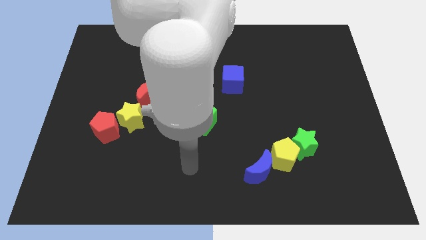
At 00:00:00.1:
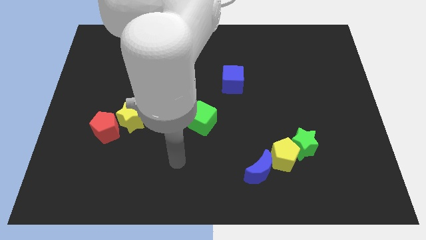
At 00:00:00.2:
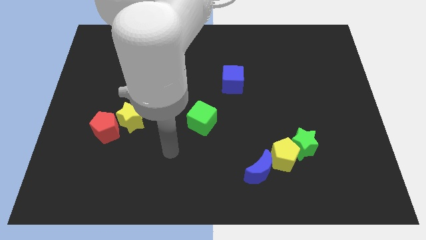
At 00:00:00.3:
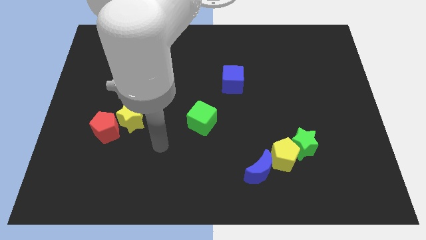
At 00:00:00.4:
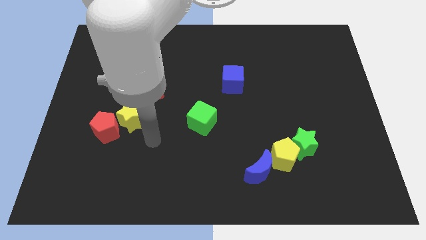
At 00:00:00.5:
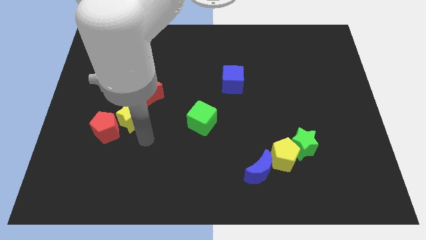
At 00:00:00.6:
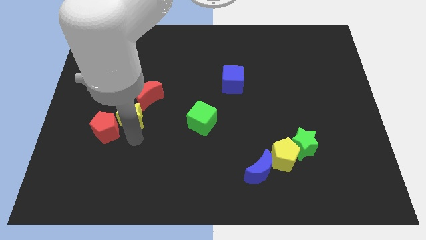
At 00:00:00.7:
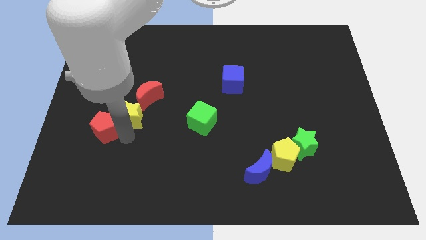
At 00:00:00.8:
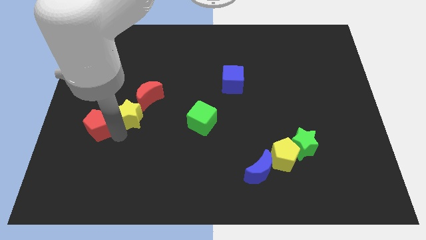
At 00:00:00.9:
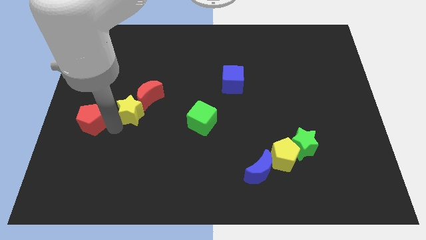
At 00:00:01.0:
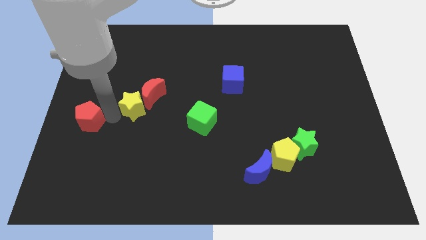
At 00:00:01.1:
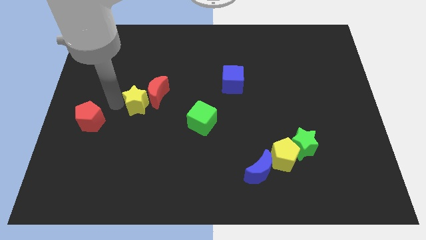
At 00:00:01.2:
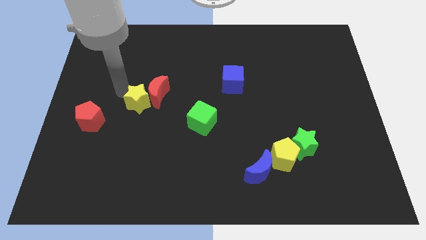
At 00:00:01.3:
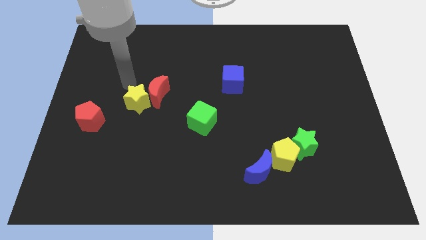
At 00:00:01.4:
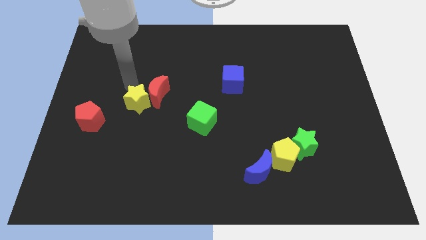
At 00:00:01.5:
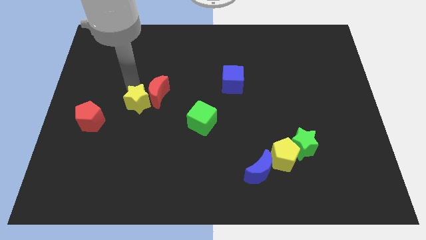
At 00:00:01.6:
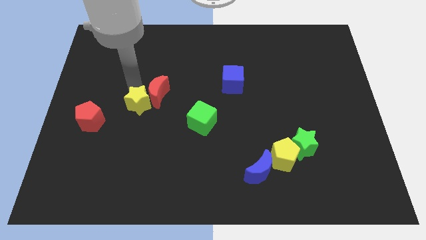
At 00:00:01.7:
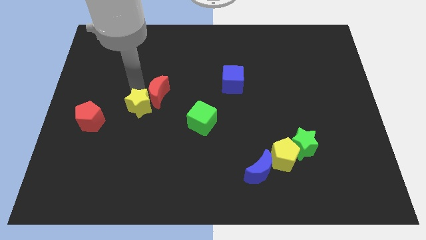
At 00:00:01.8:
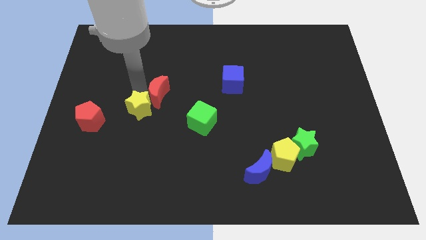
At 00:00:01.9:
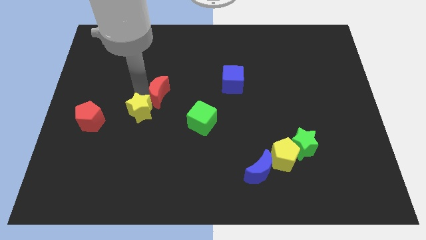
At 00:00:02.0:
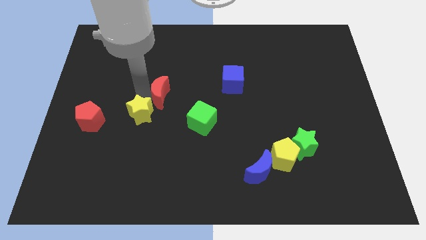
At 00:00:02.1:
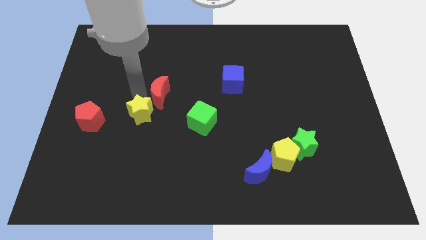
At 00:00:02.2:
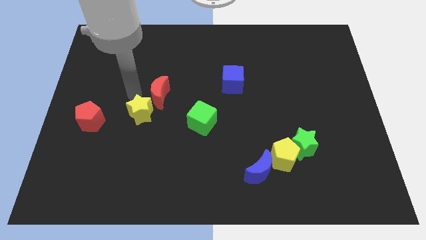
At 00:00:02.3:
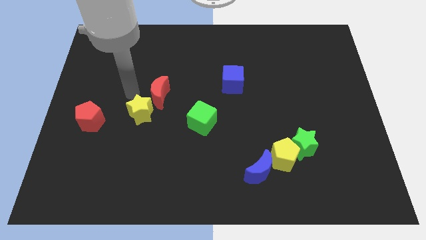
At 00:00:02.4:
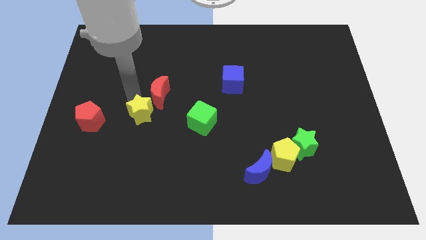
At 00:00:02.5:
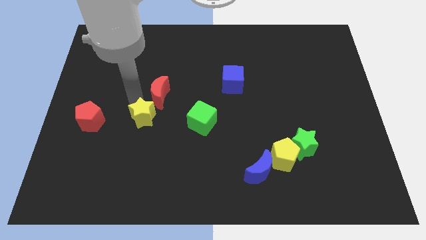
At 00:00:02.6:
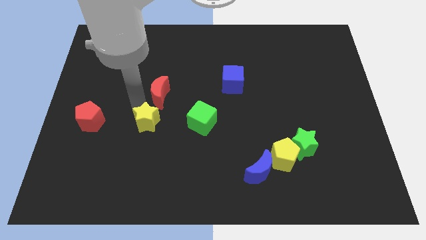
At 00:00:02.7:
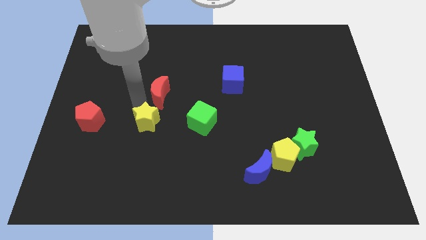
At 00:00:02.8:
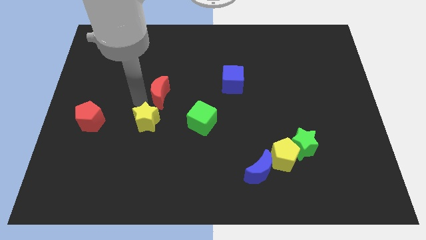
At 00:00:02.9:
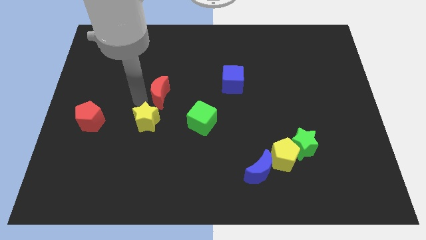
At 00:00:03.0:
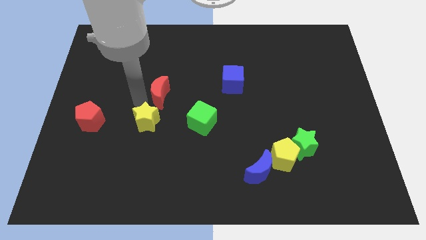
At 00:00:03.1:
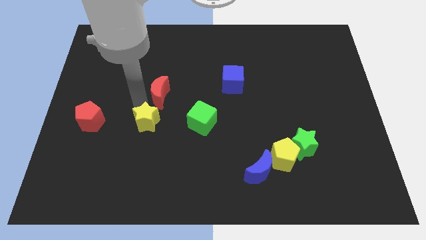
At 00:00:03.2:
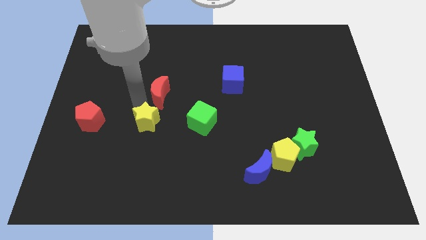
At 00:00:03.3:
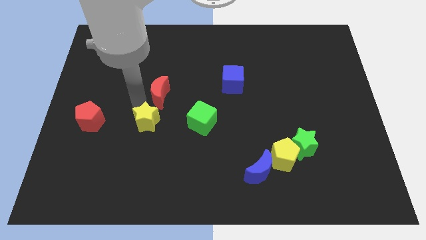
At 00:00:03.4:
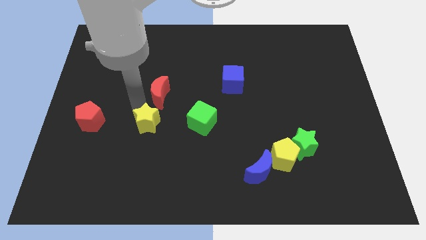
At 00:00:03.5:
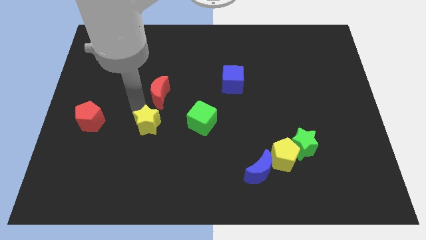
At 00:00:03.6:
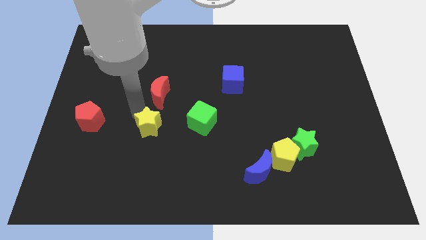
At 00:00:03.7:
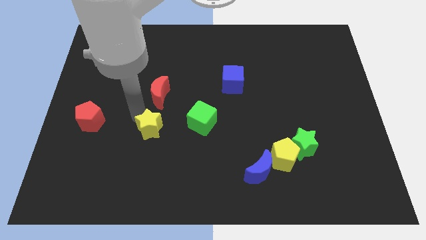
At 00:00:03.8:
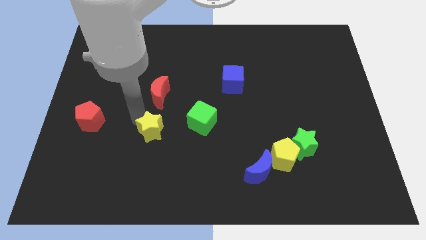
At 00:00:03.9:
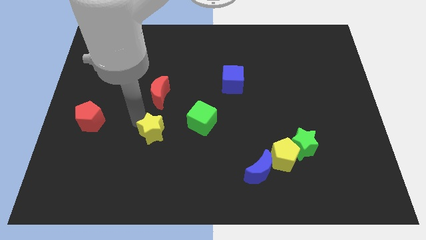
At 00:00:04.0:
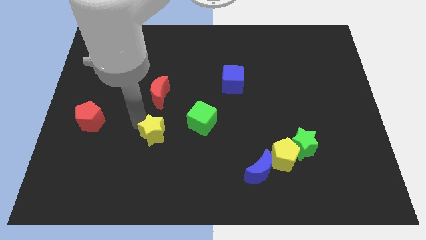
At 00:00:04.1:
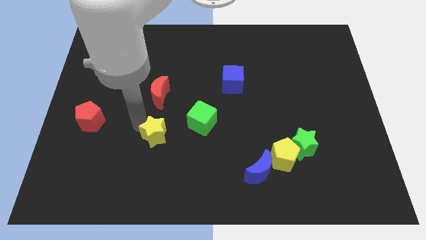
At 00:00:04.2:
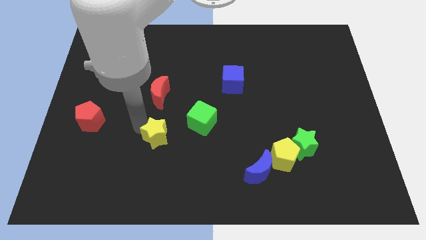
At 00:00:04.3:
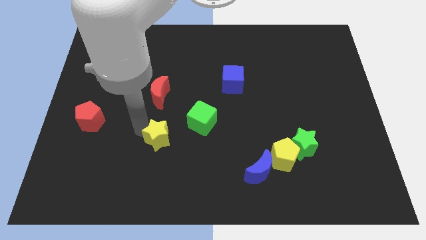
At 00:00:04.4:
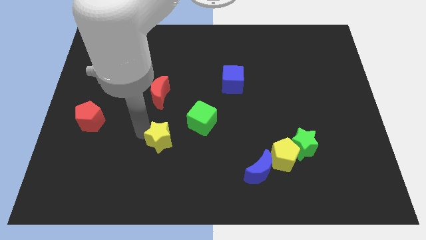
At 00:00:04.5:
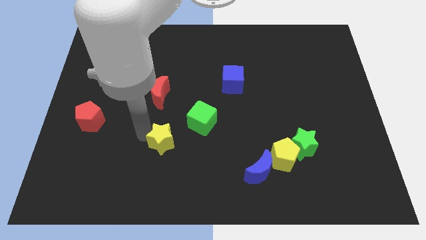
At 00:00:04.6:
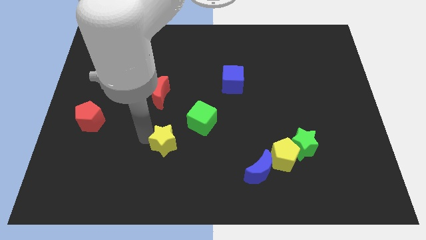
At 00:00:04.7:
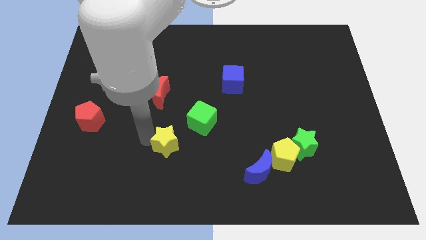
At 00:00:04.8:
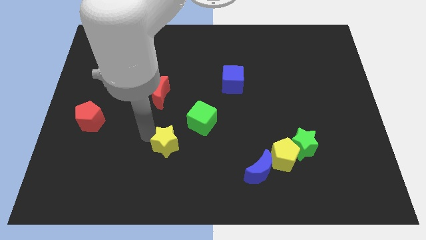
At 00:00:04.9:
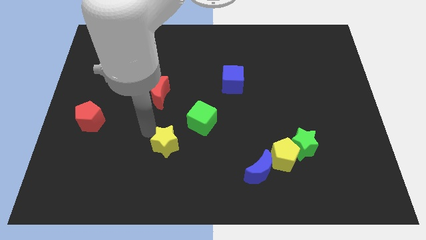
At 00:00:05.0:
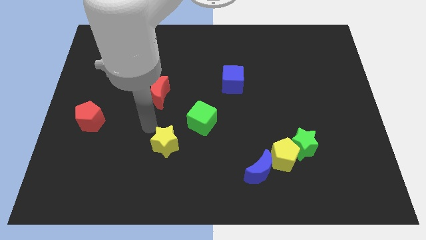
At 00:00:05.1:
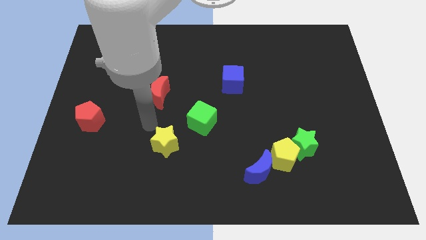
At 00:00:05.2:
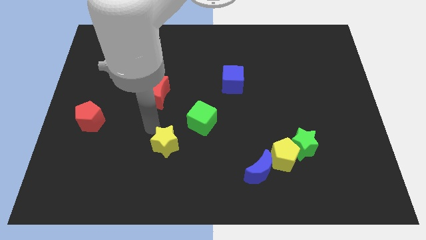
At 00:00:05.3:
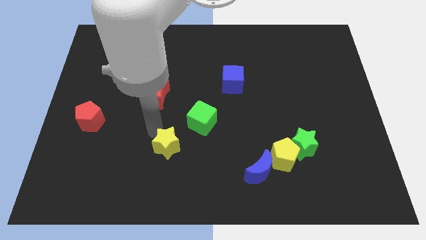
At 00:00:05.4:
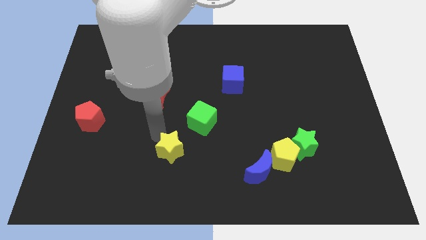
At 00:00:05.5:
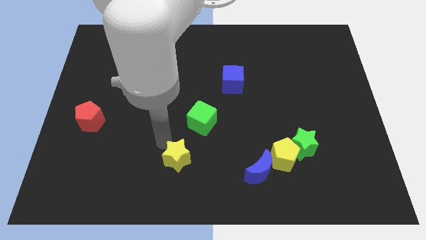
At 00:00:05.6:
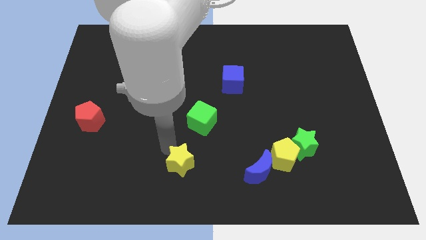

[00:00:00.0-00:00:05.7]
slide the yellow star to the bottom side

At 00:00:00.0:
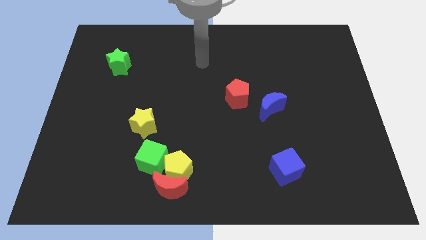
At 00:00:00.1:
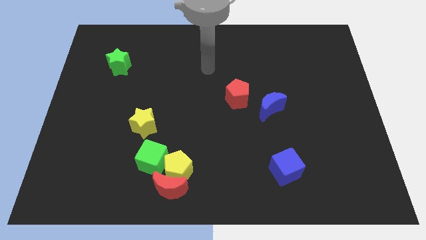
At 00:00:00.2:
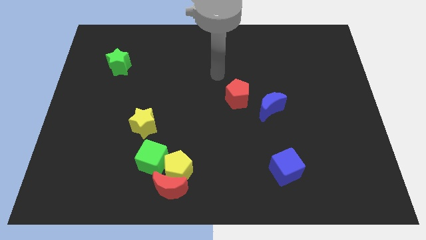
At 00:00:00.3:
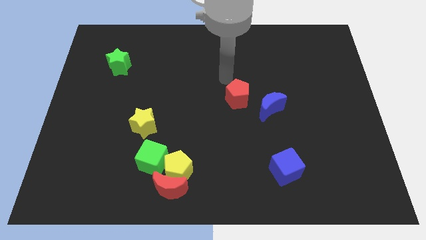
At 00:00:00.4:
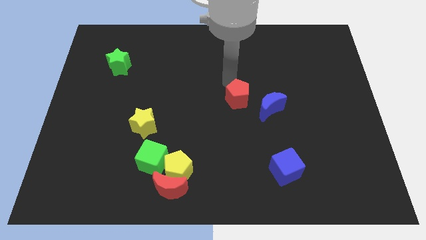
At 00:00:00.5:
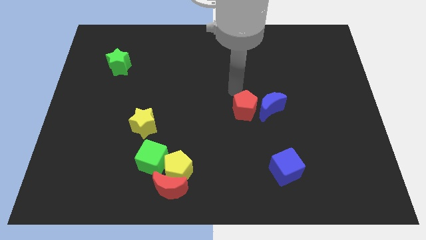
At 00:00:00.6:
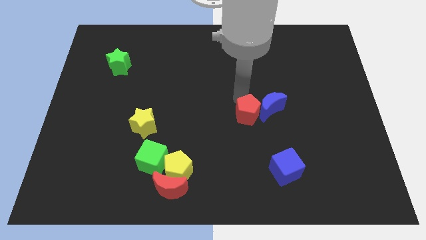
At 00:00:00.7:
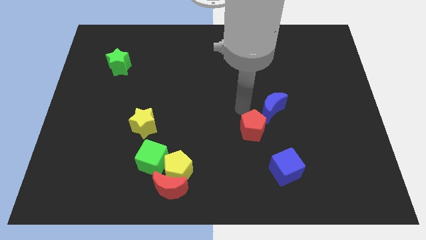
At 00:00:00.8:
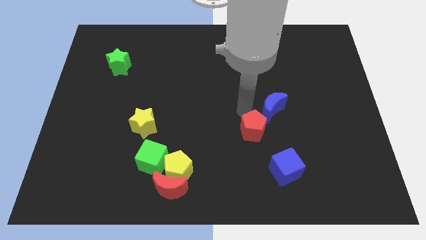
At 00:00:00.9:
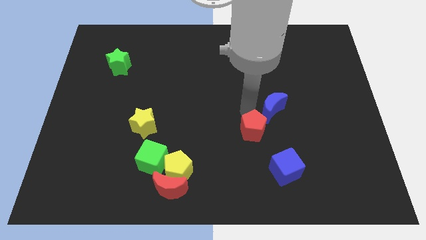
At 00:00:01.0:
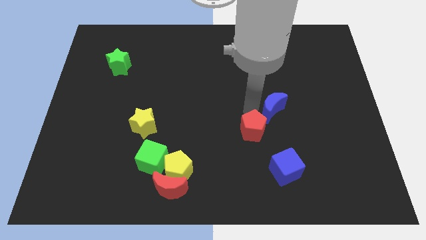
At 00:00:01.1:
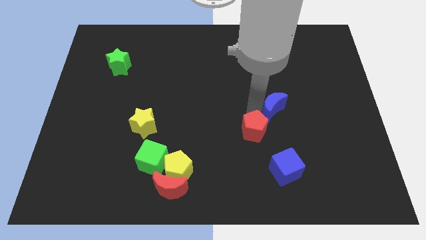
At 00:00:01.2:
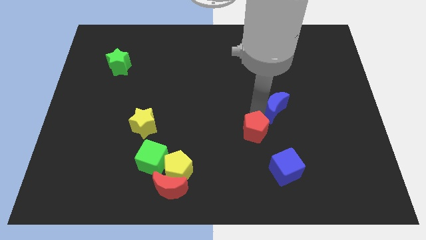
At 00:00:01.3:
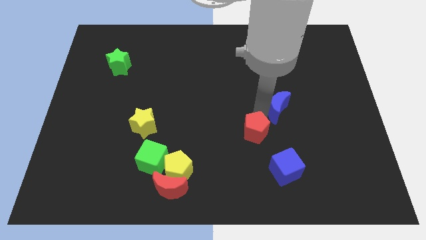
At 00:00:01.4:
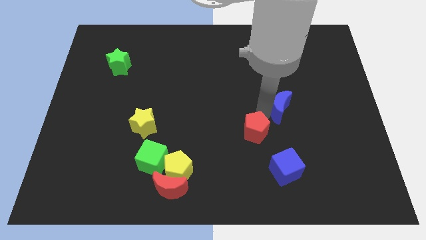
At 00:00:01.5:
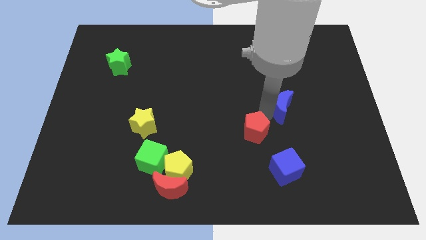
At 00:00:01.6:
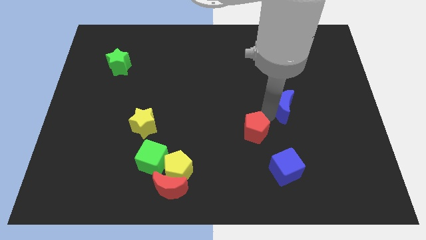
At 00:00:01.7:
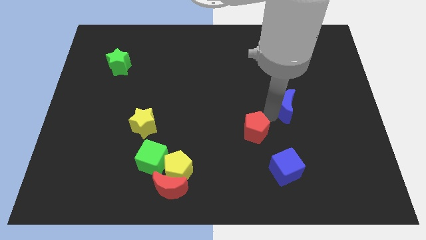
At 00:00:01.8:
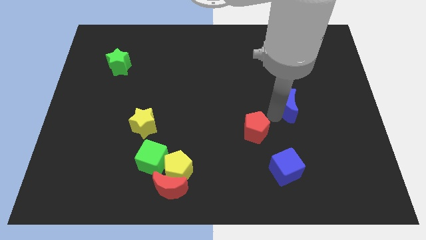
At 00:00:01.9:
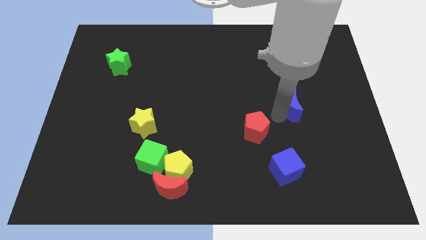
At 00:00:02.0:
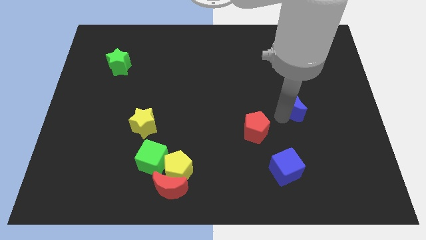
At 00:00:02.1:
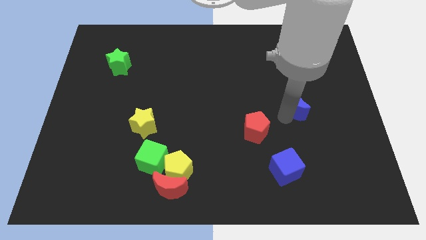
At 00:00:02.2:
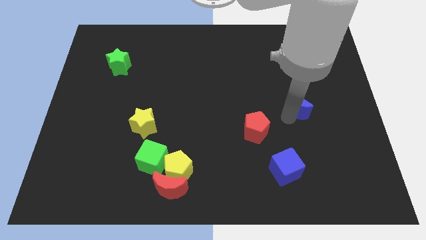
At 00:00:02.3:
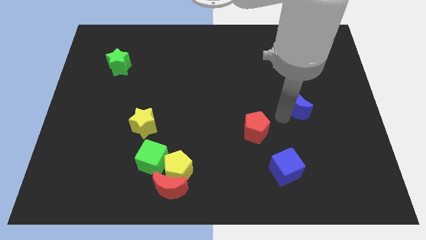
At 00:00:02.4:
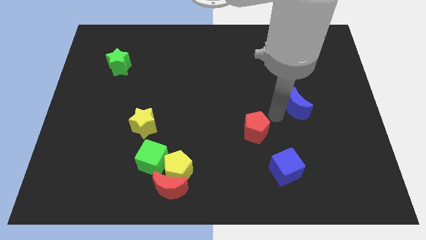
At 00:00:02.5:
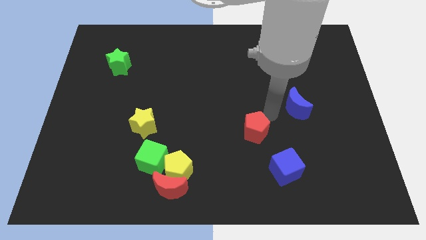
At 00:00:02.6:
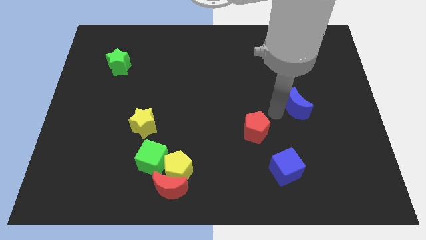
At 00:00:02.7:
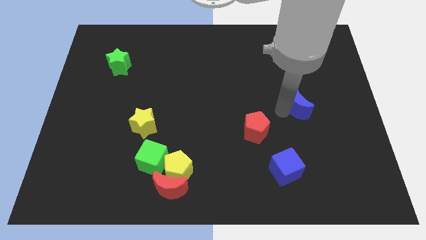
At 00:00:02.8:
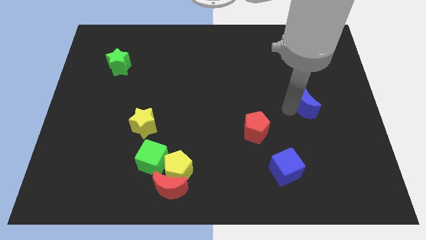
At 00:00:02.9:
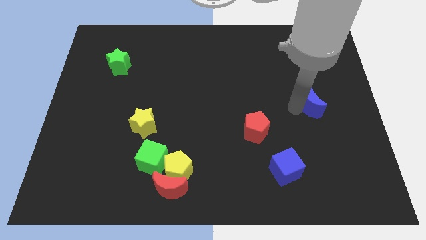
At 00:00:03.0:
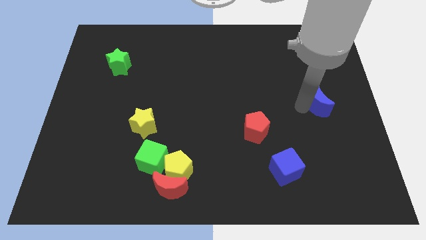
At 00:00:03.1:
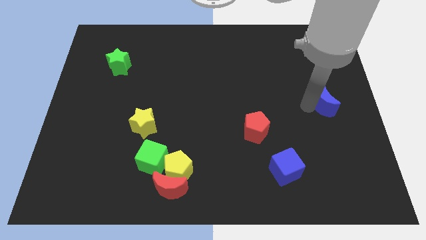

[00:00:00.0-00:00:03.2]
put the blue moon to the right side of the board
